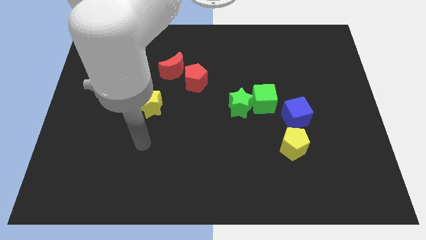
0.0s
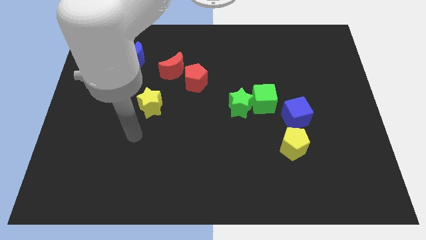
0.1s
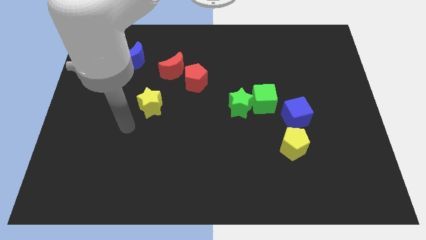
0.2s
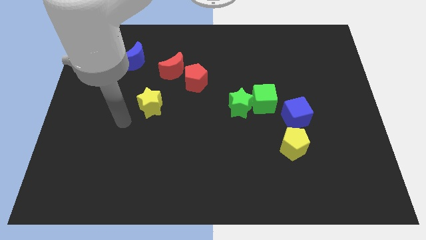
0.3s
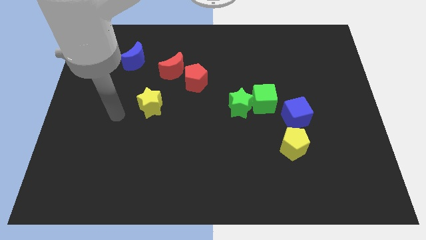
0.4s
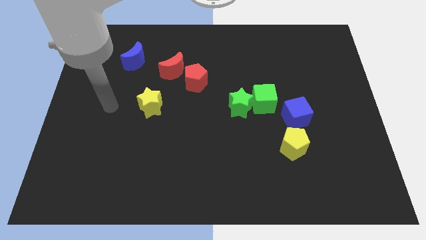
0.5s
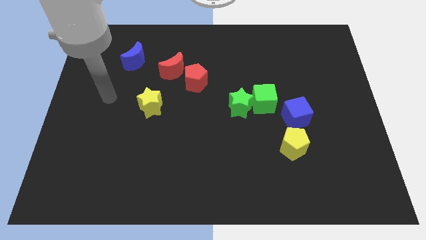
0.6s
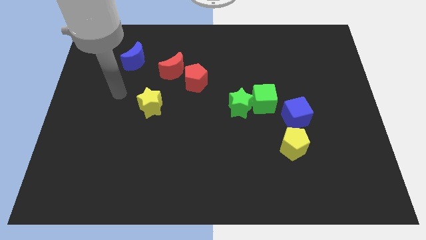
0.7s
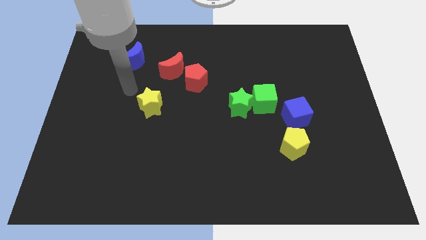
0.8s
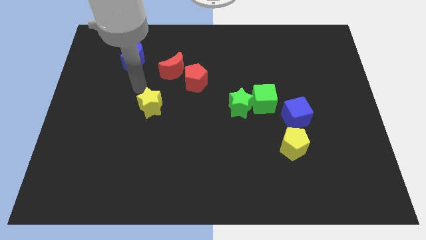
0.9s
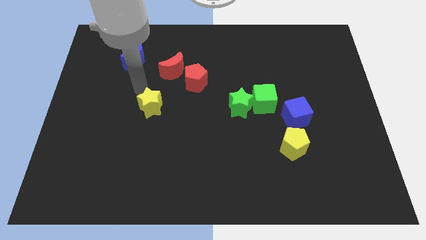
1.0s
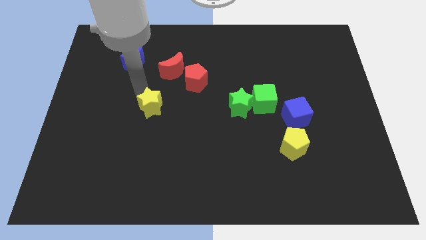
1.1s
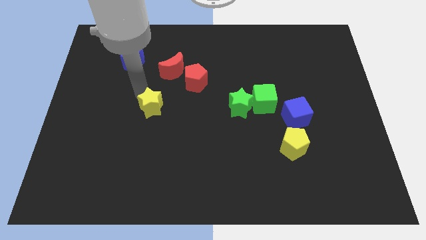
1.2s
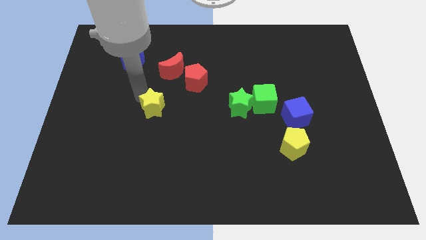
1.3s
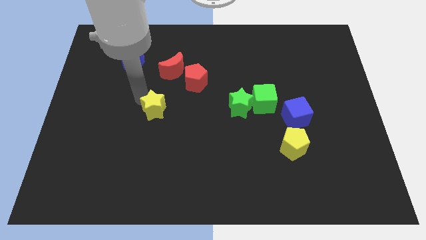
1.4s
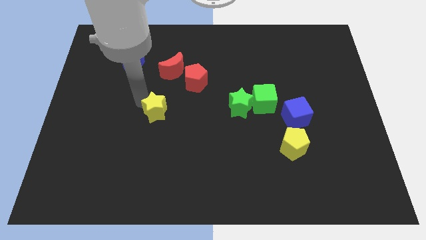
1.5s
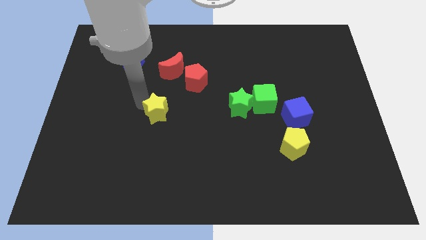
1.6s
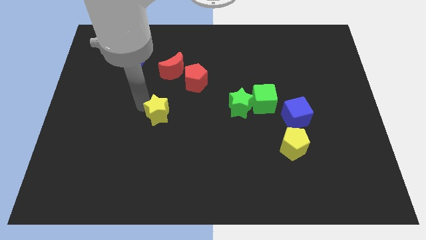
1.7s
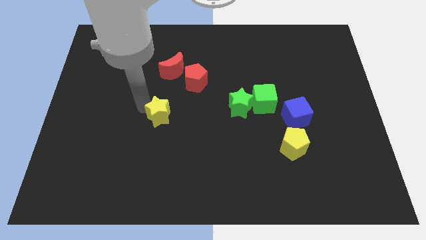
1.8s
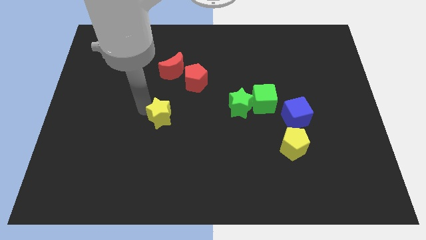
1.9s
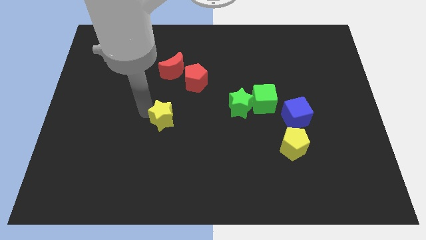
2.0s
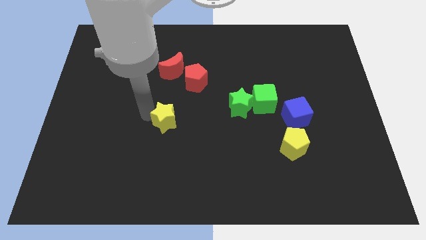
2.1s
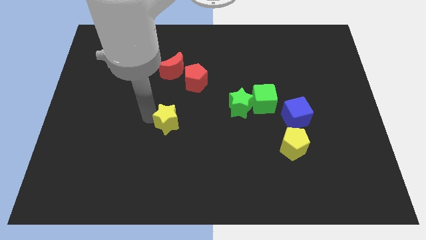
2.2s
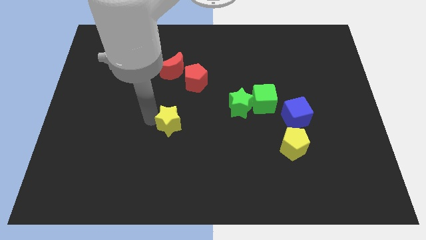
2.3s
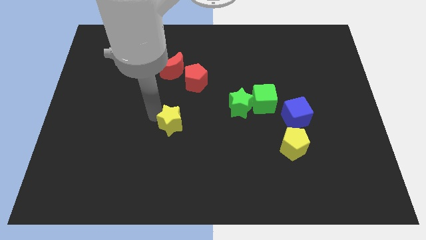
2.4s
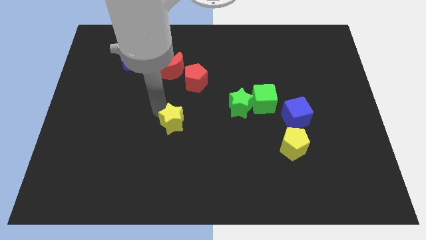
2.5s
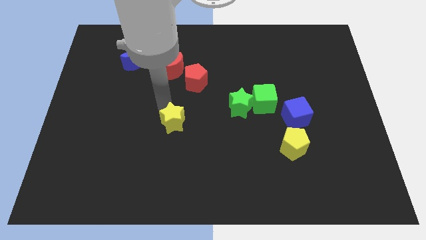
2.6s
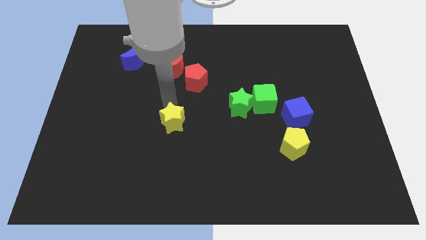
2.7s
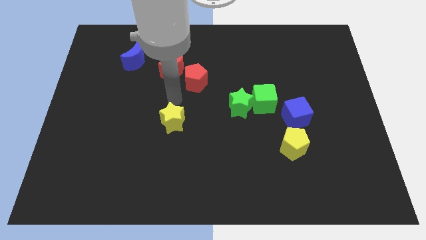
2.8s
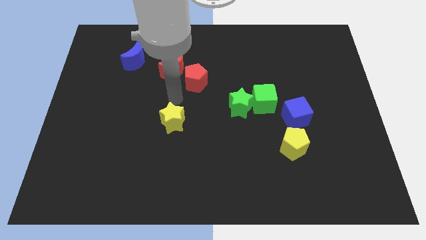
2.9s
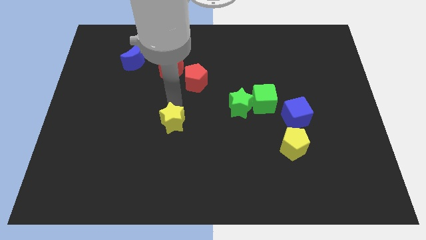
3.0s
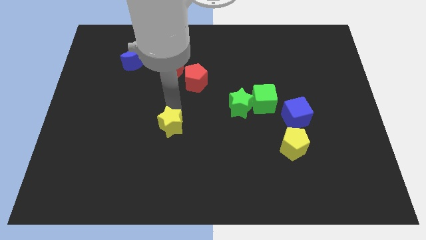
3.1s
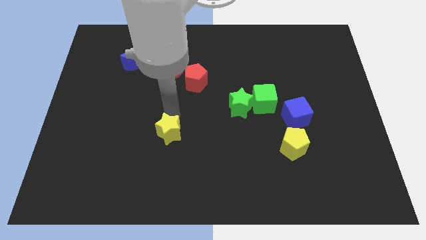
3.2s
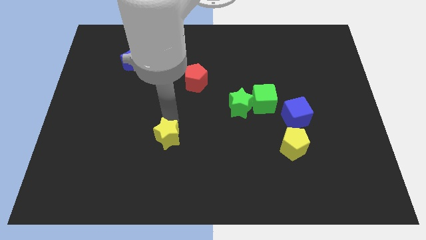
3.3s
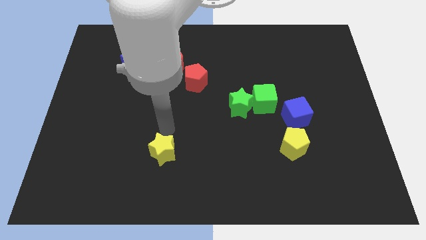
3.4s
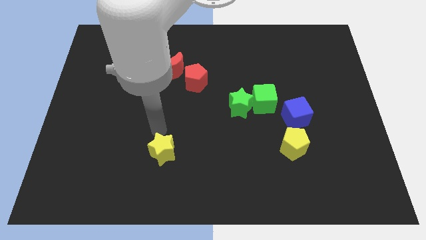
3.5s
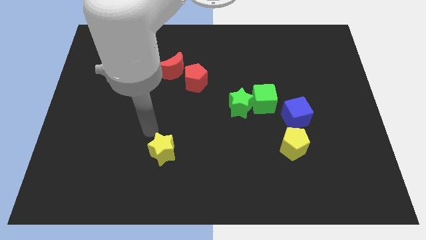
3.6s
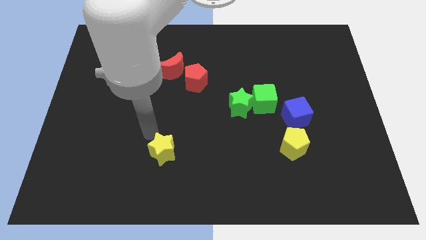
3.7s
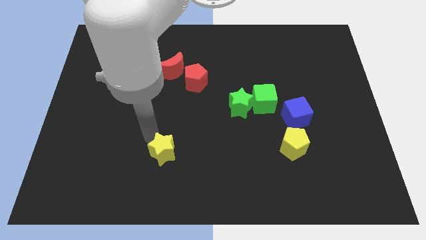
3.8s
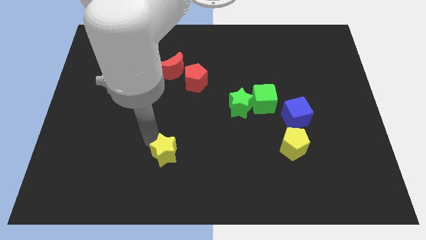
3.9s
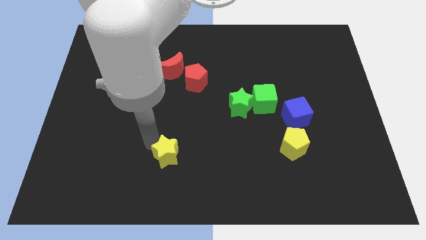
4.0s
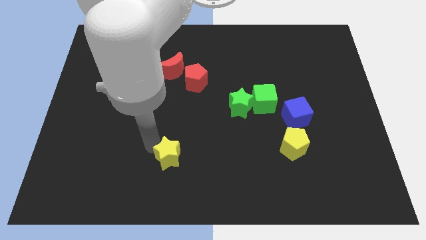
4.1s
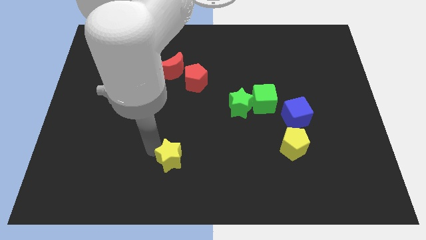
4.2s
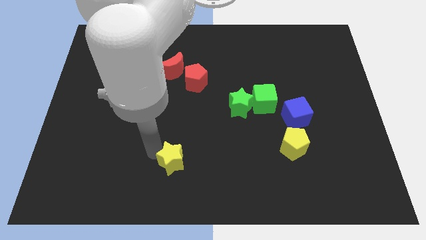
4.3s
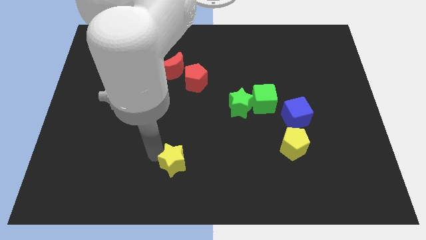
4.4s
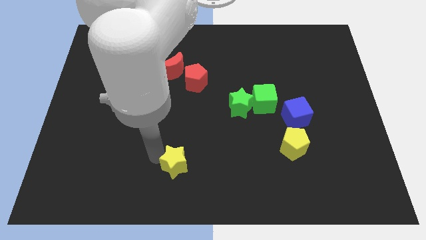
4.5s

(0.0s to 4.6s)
put the yellow star to the bottom side

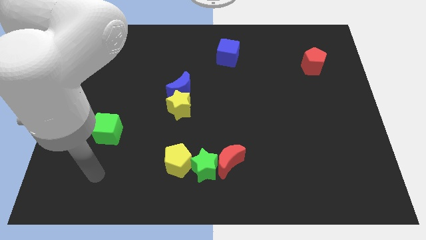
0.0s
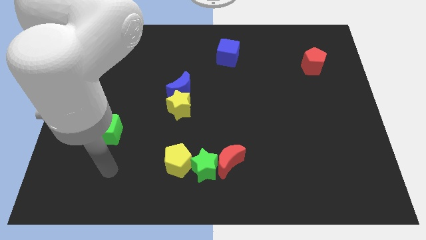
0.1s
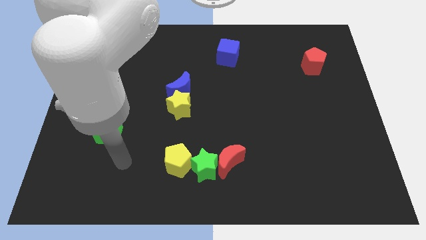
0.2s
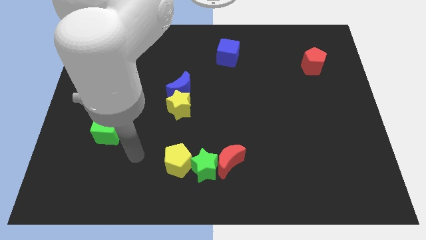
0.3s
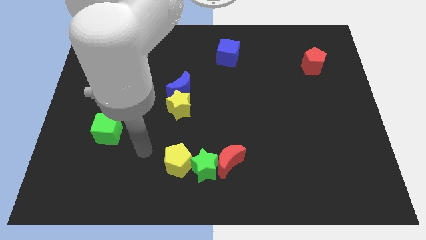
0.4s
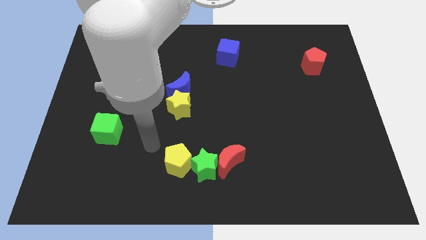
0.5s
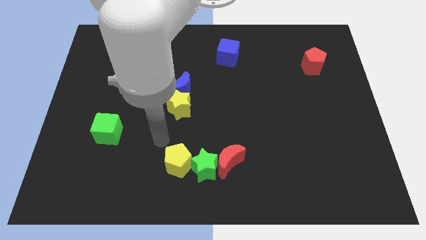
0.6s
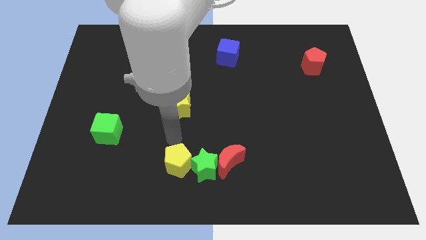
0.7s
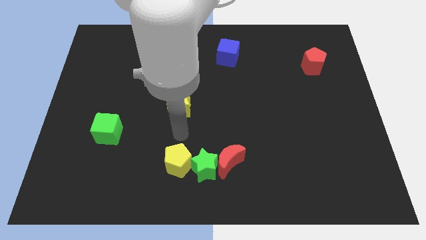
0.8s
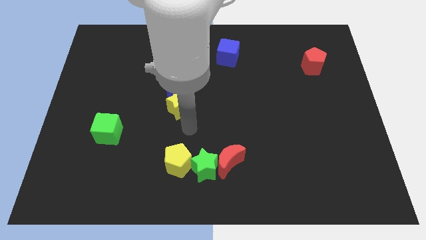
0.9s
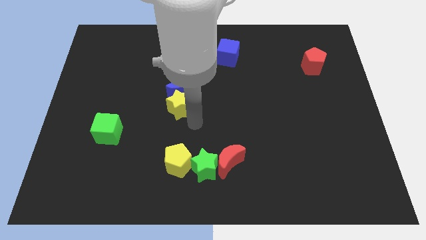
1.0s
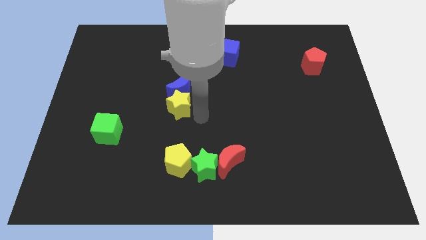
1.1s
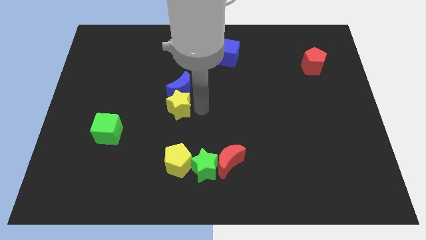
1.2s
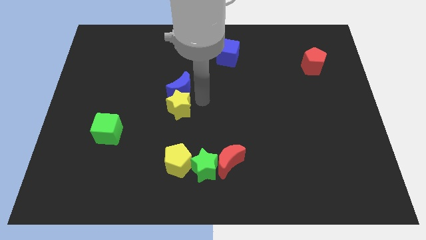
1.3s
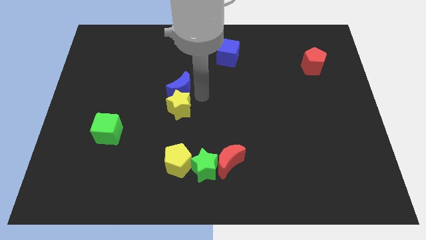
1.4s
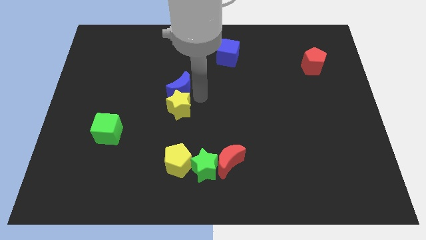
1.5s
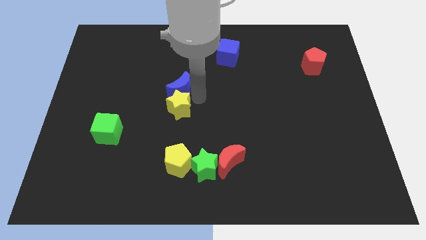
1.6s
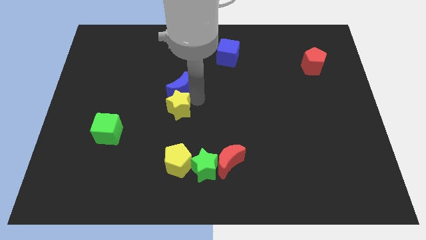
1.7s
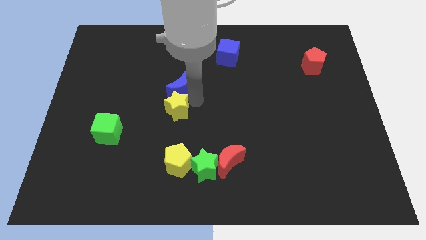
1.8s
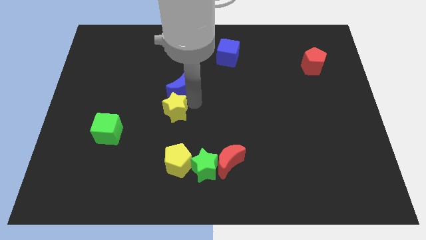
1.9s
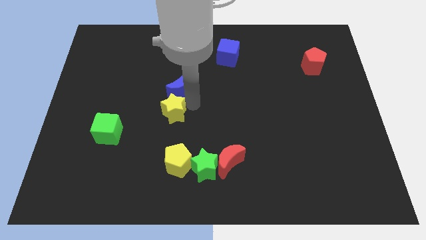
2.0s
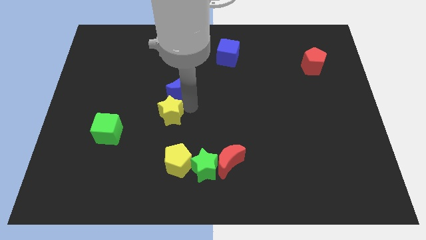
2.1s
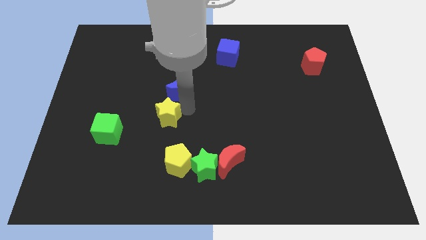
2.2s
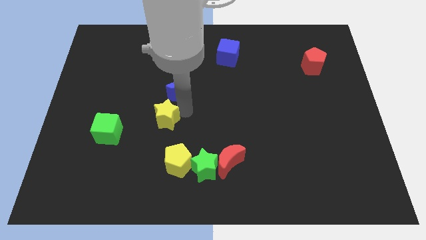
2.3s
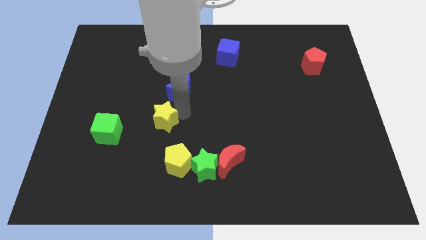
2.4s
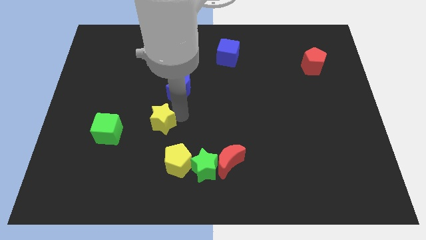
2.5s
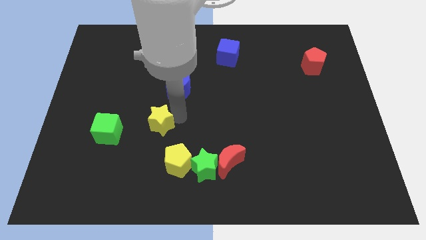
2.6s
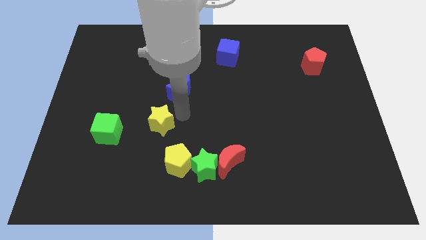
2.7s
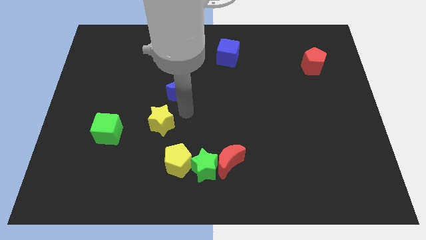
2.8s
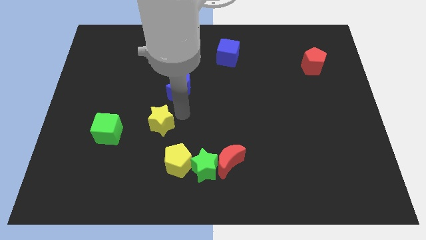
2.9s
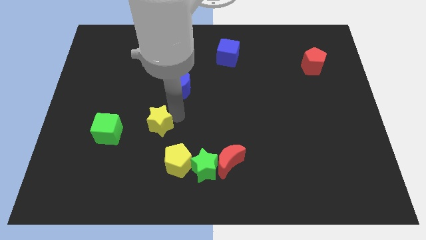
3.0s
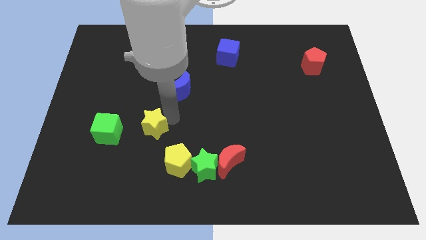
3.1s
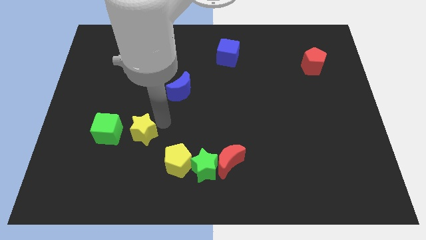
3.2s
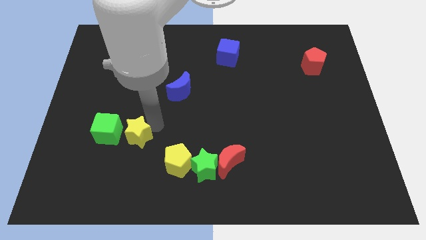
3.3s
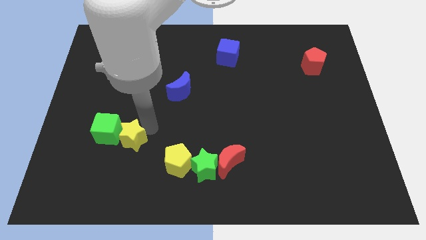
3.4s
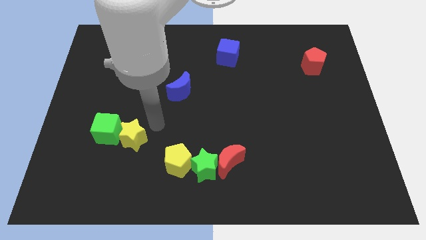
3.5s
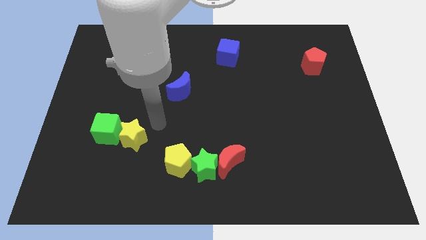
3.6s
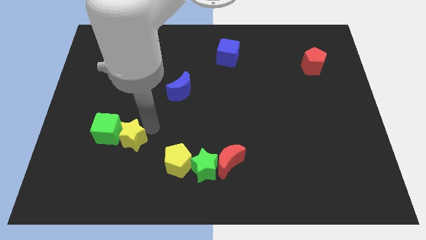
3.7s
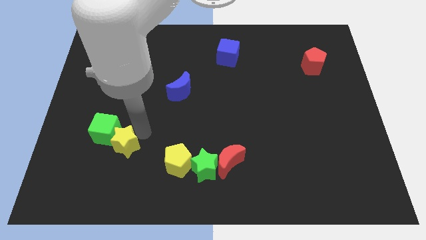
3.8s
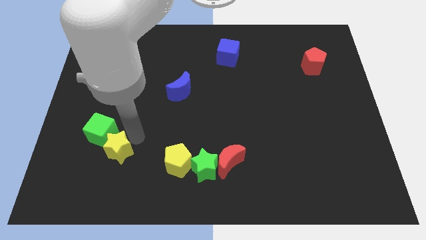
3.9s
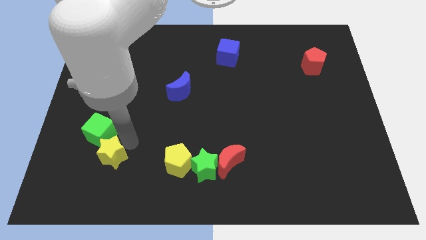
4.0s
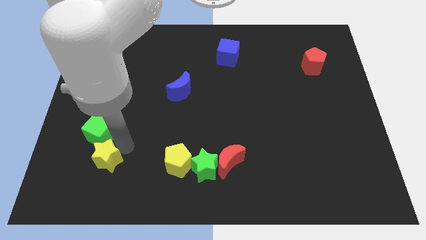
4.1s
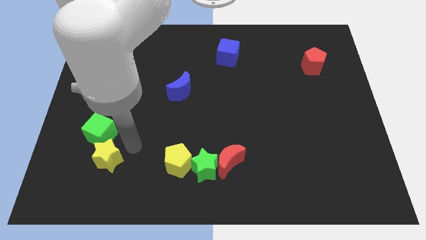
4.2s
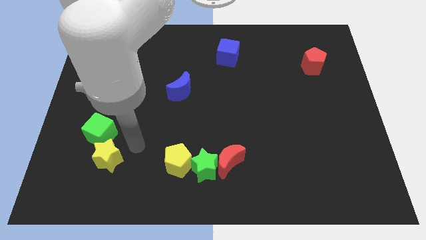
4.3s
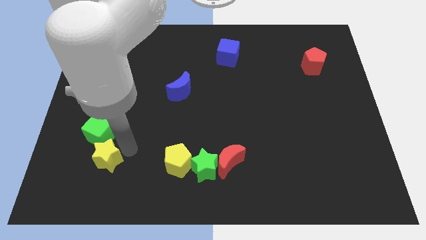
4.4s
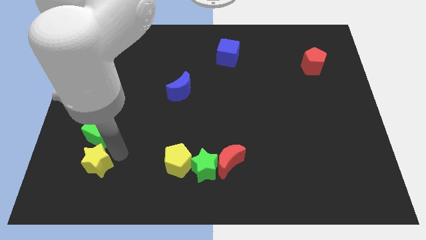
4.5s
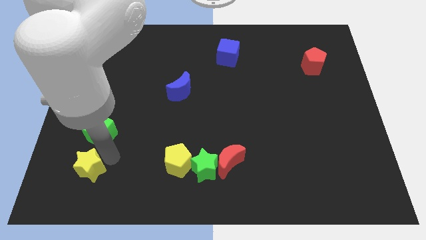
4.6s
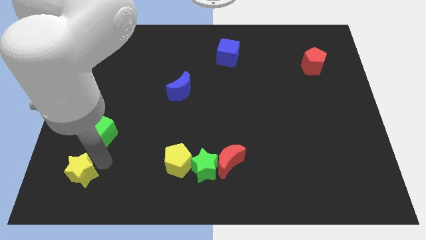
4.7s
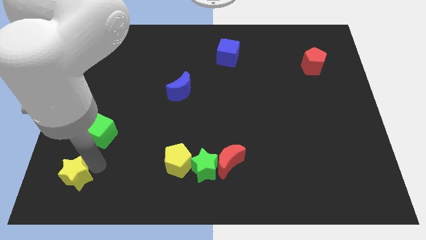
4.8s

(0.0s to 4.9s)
move the yellow star to the bottom left
